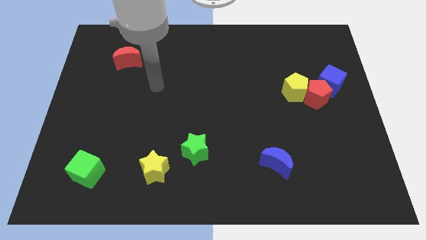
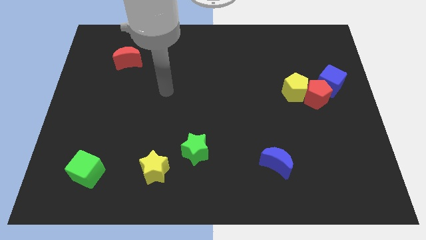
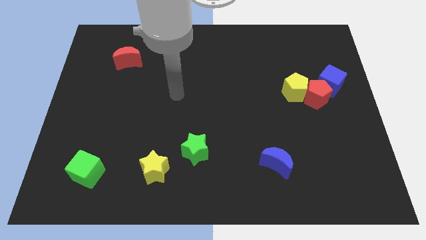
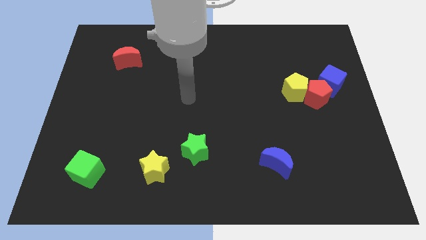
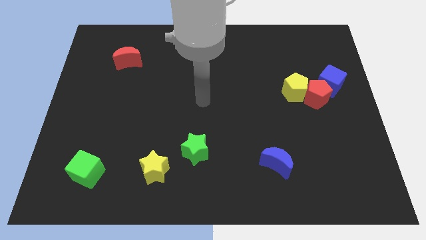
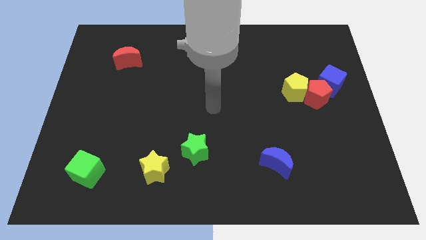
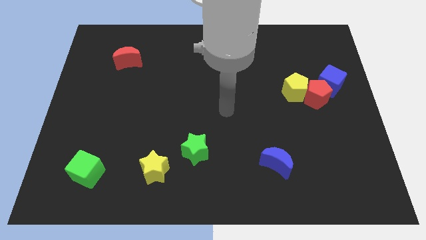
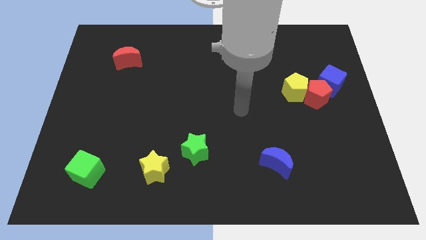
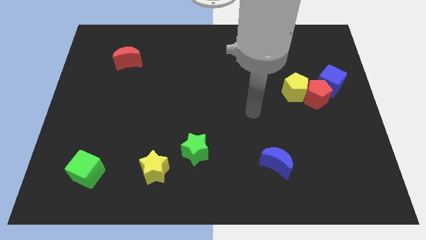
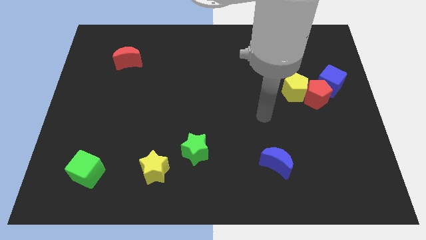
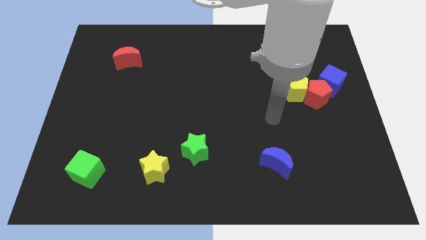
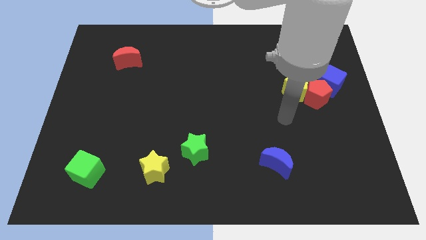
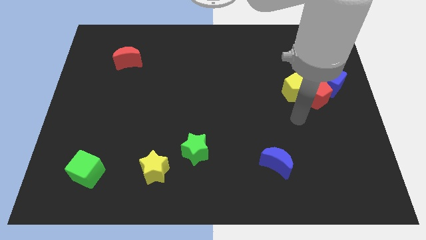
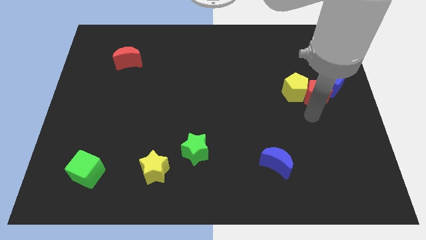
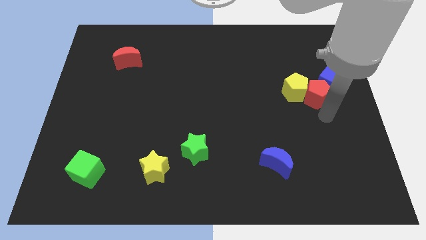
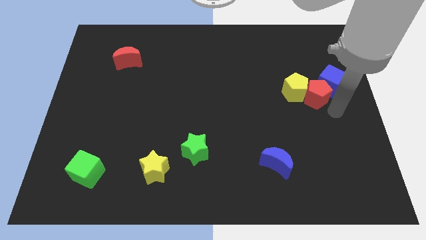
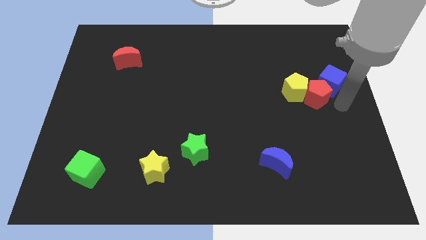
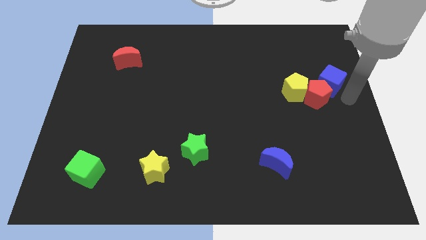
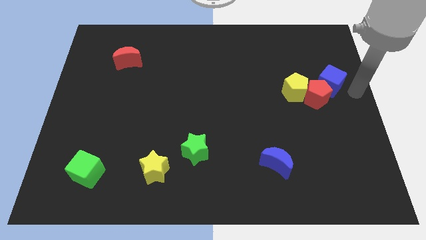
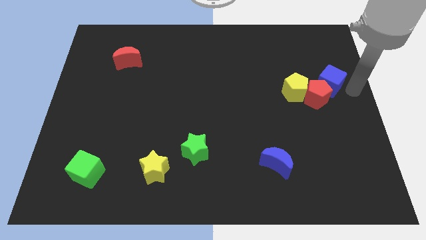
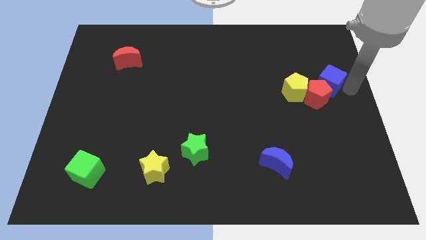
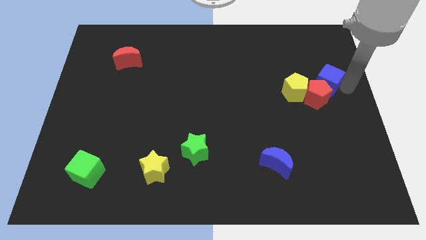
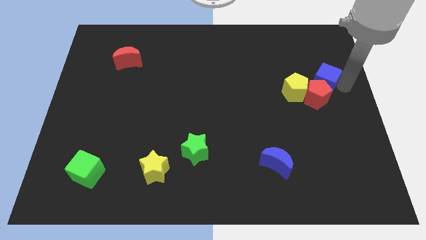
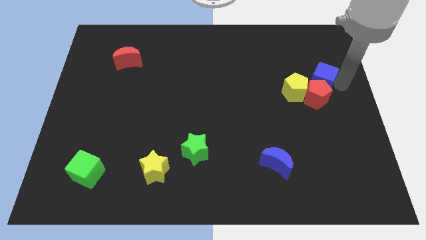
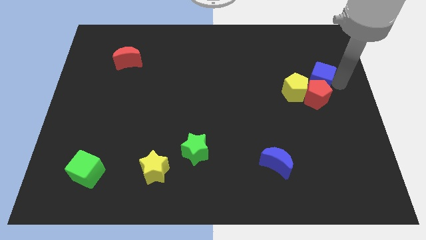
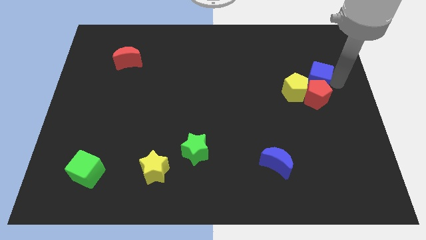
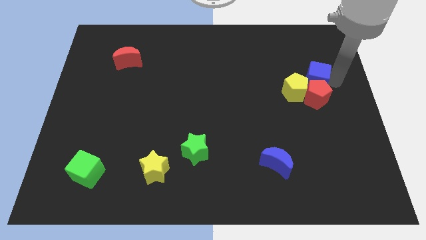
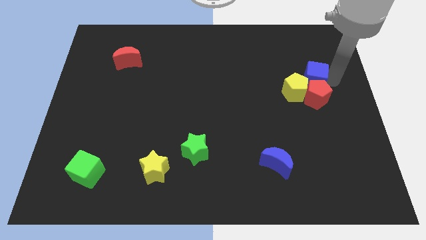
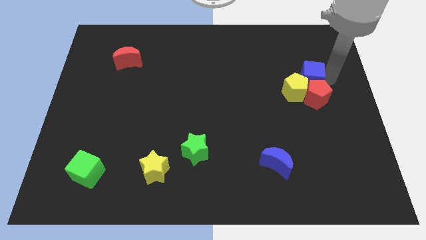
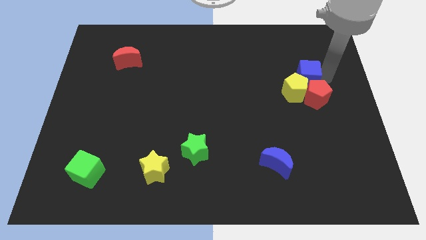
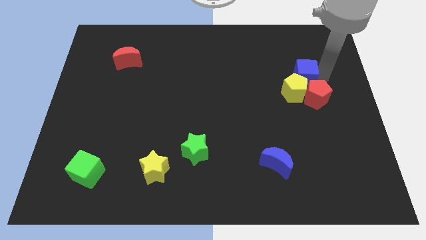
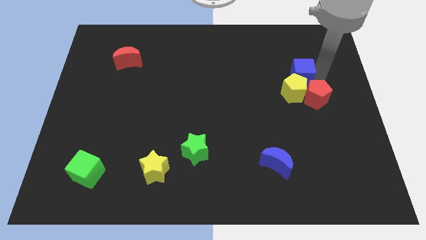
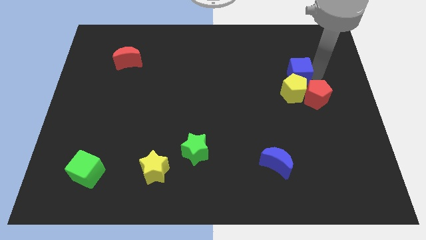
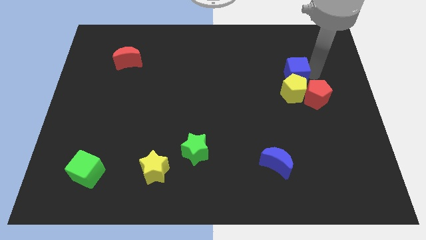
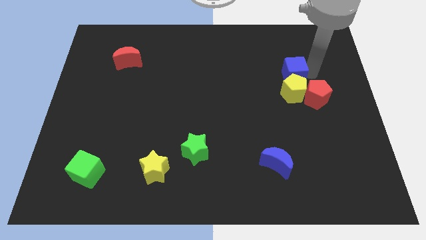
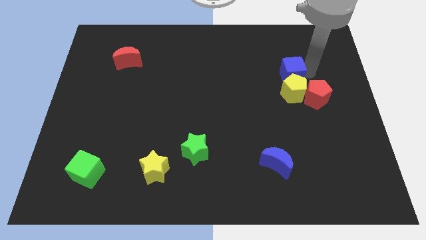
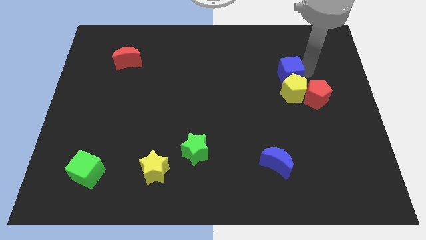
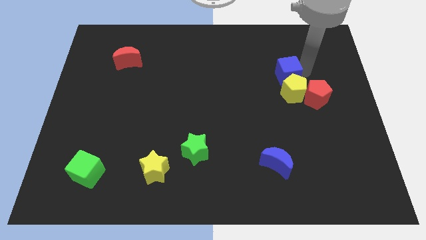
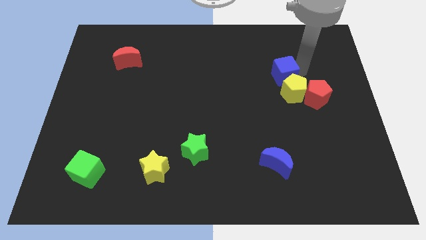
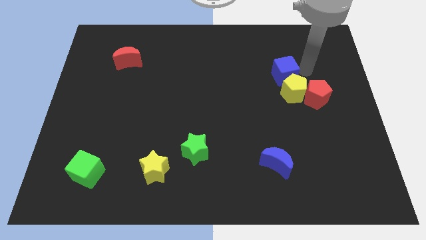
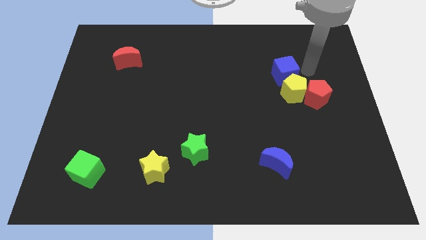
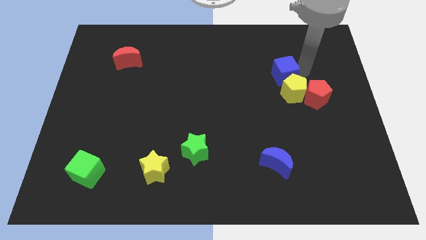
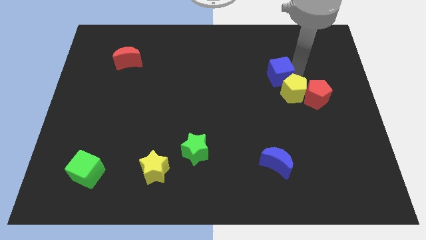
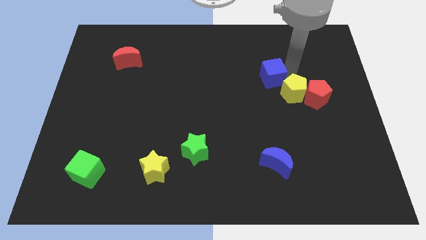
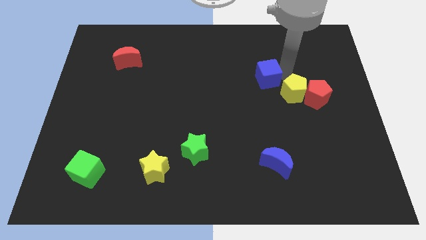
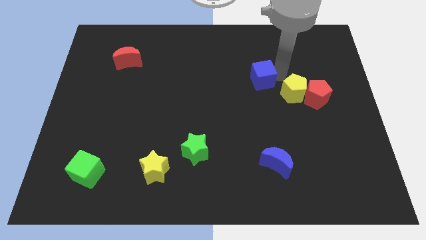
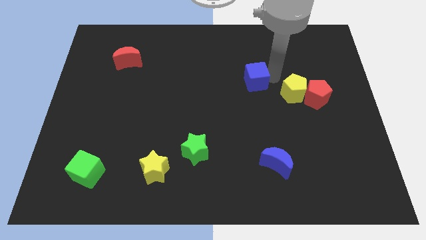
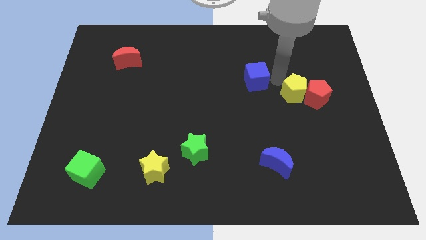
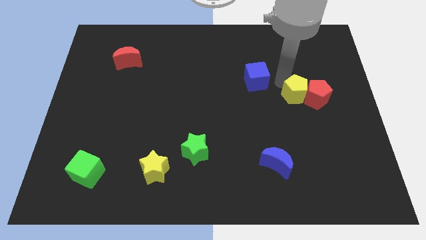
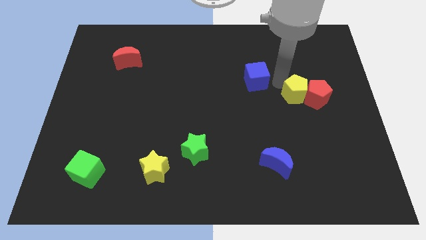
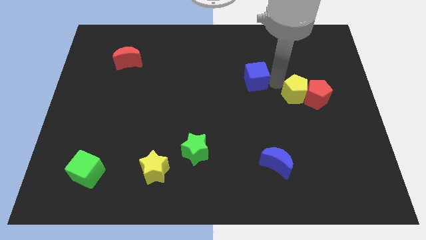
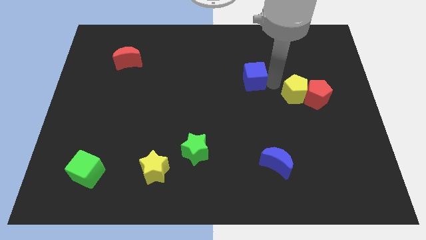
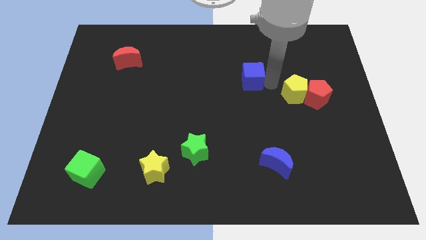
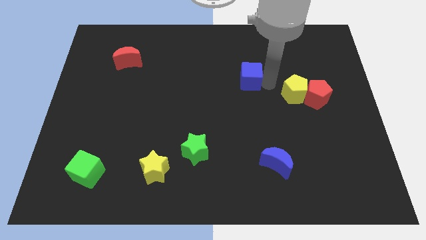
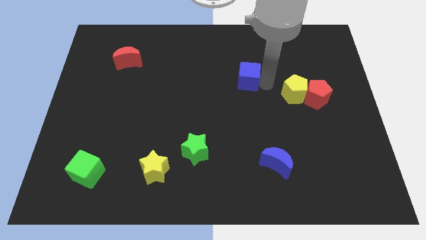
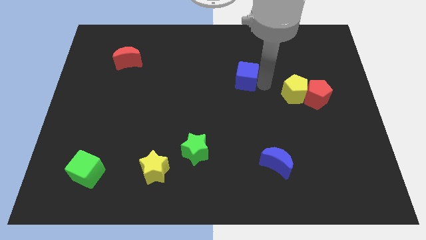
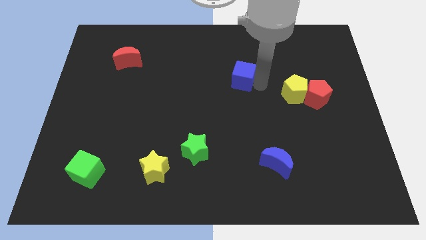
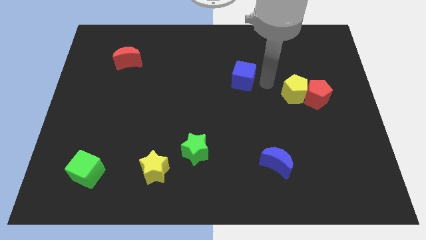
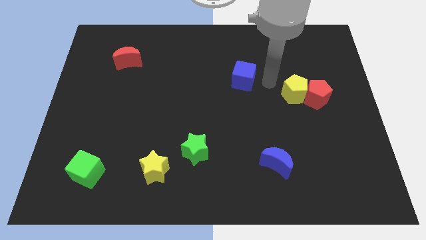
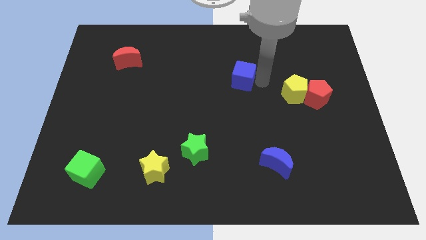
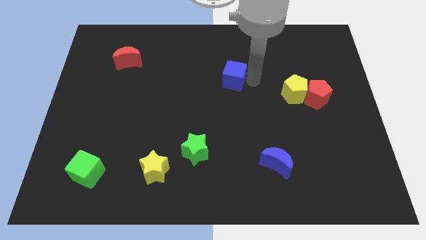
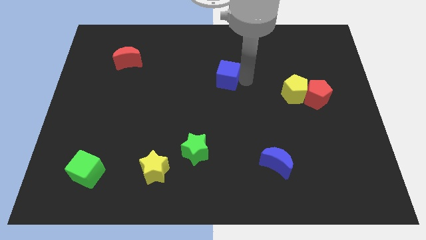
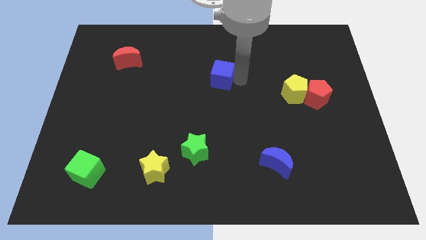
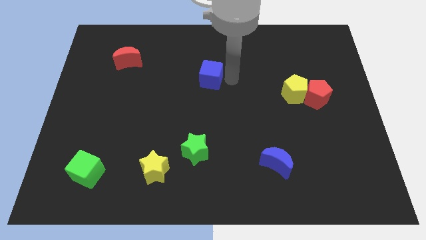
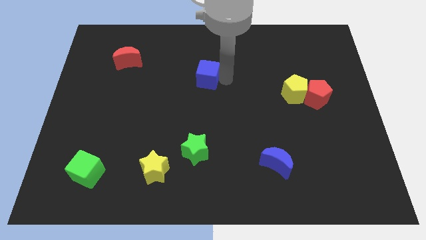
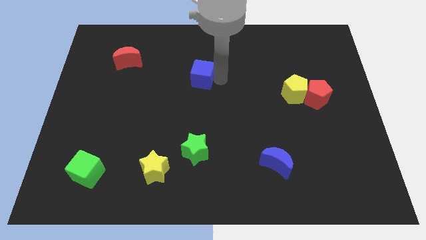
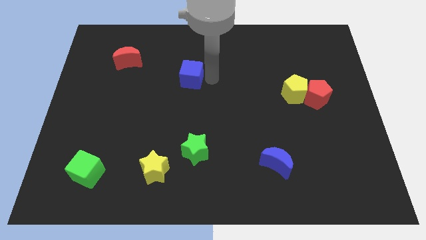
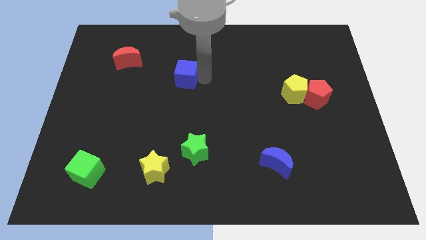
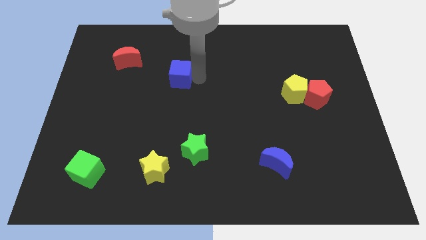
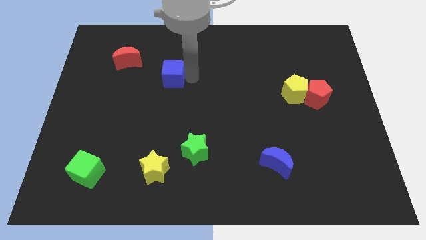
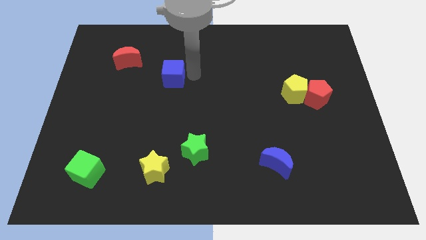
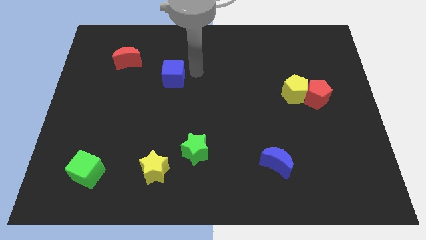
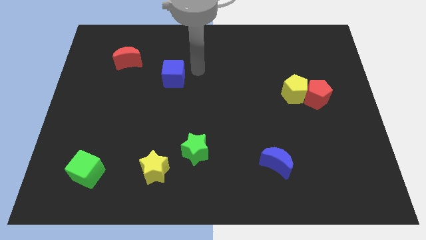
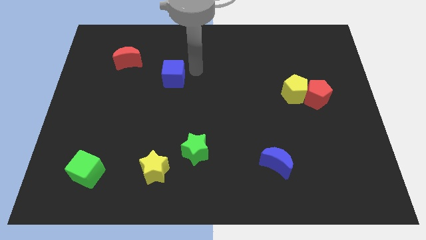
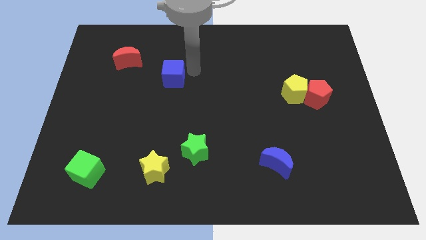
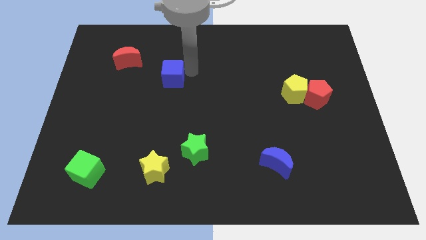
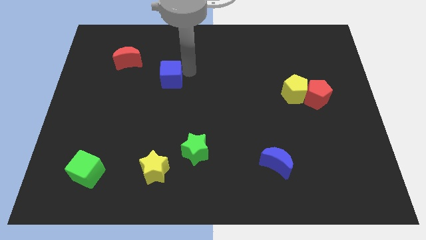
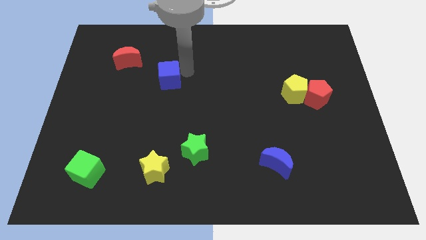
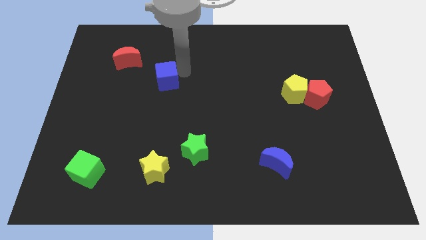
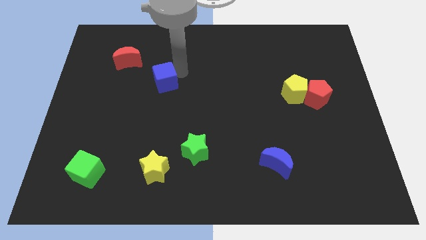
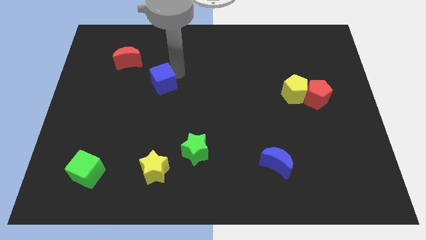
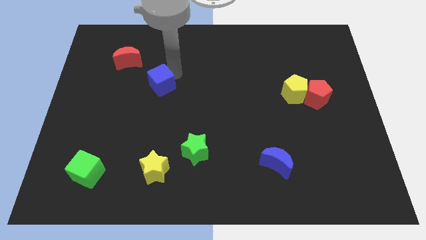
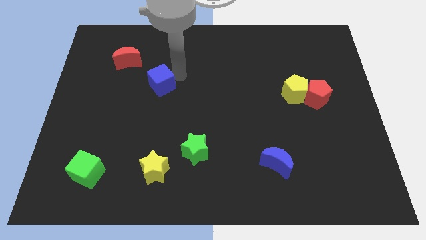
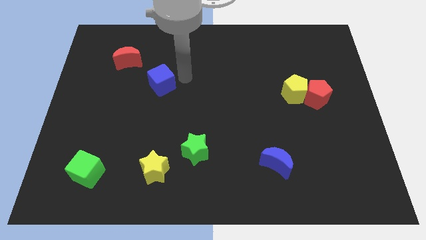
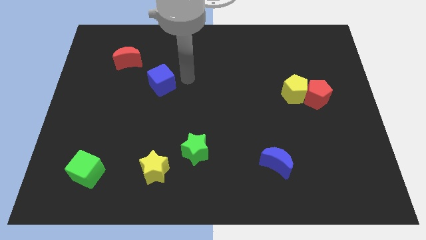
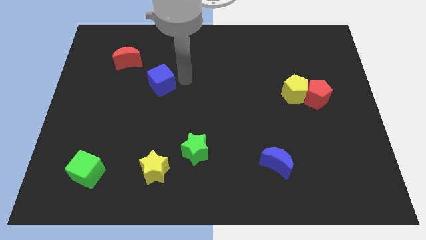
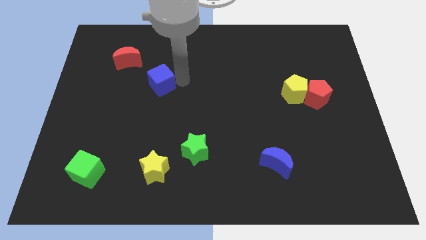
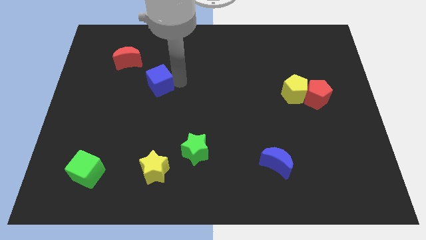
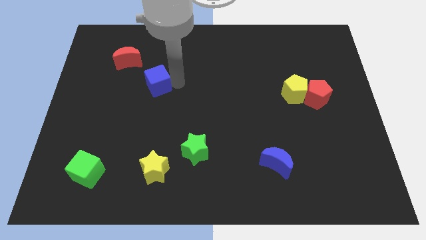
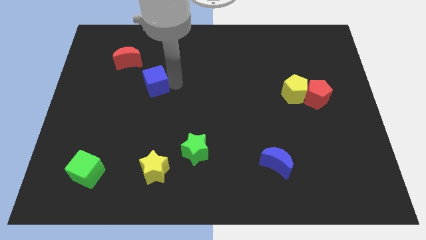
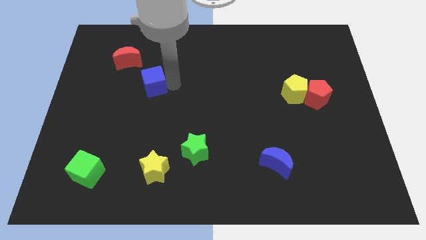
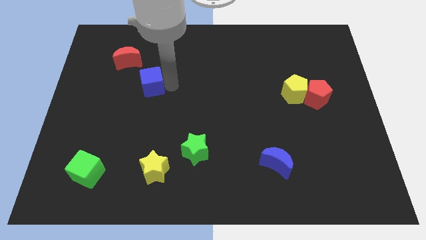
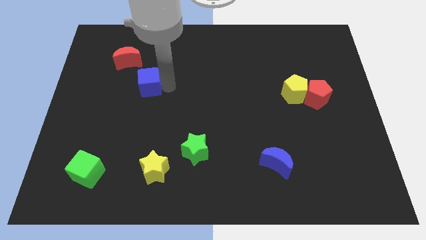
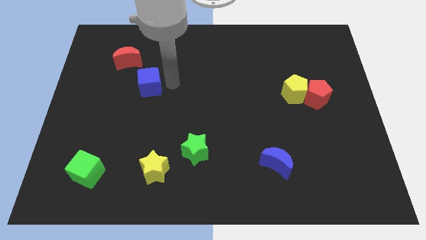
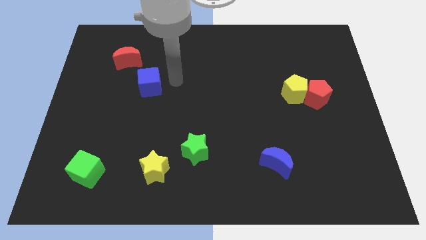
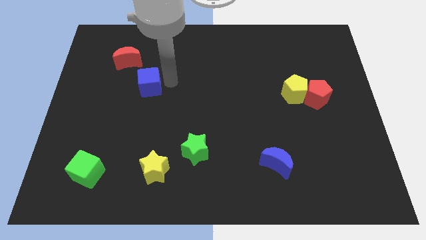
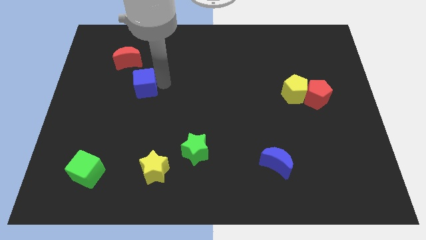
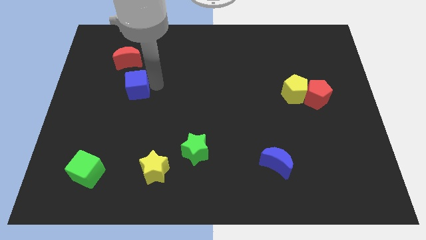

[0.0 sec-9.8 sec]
slide the blue cube to the bottom side of the red moon
